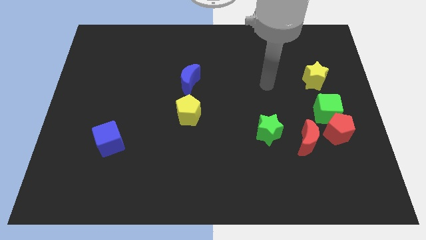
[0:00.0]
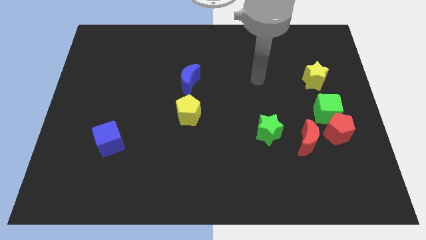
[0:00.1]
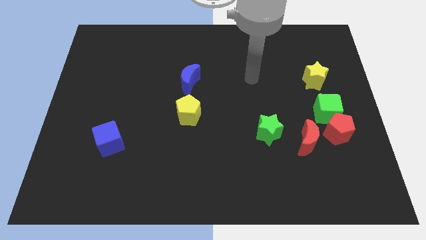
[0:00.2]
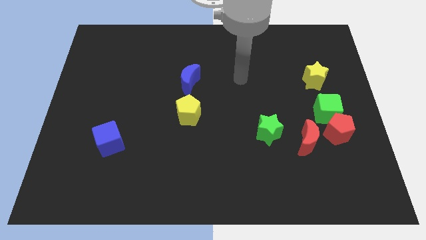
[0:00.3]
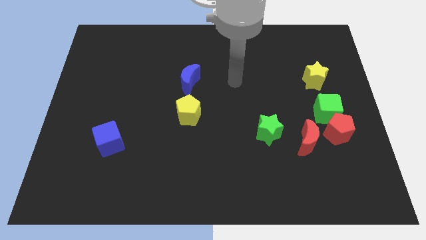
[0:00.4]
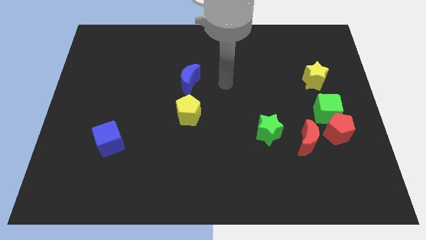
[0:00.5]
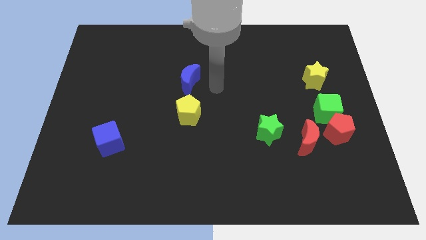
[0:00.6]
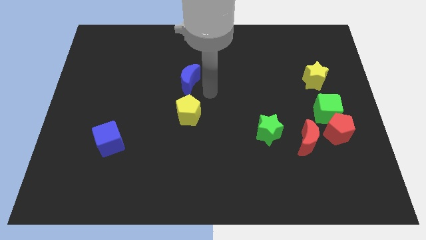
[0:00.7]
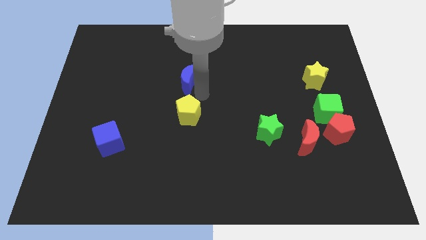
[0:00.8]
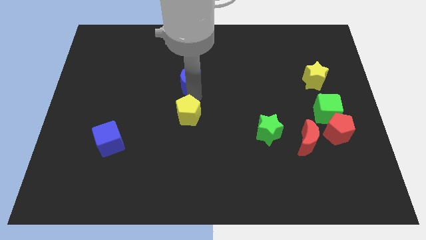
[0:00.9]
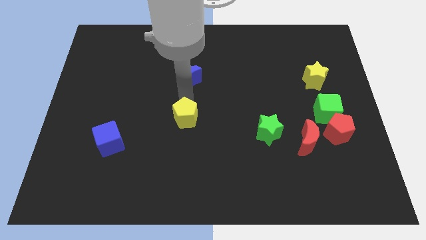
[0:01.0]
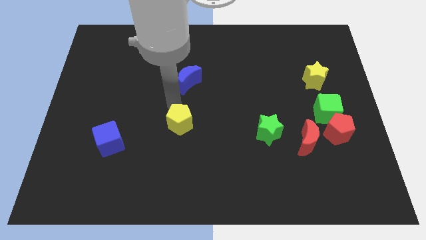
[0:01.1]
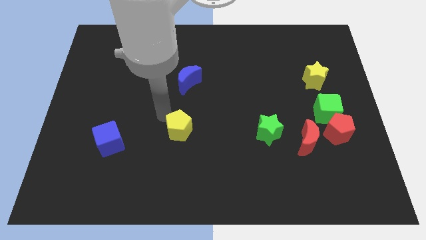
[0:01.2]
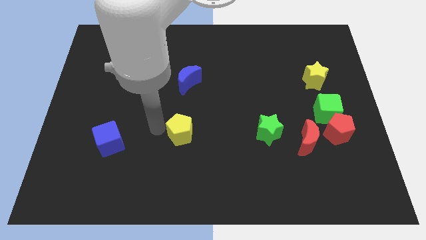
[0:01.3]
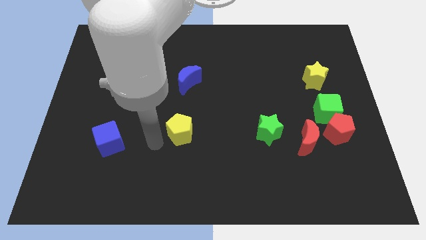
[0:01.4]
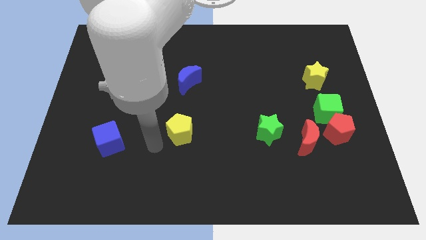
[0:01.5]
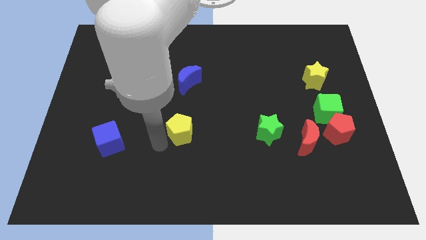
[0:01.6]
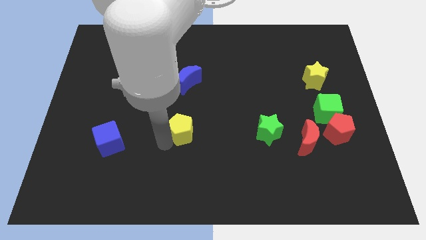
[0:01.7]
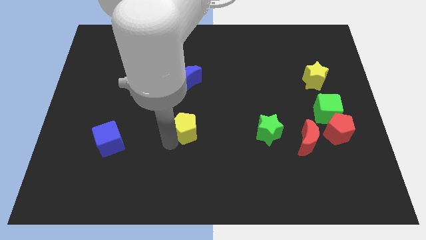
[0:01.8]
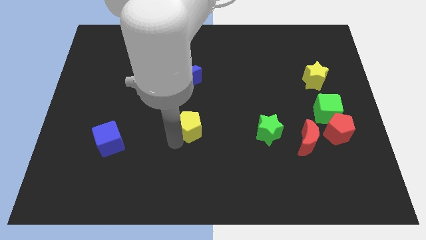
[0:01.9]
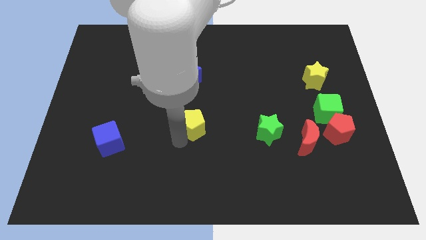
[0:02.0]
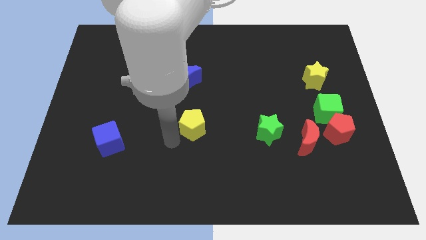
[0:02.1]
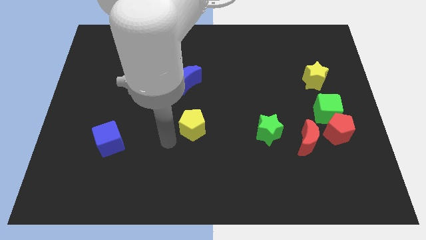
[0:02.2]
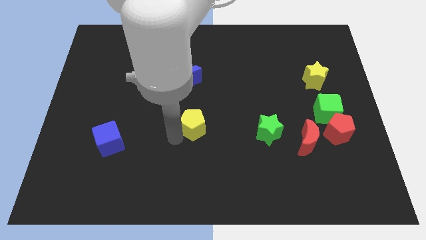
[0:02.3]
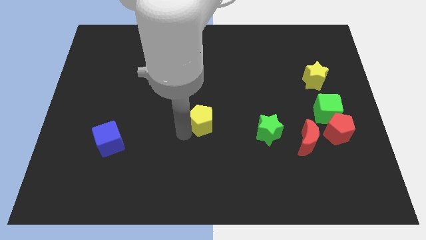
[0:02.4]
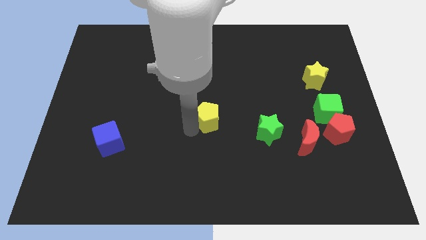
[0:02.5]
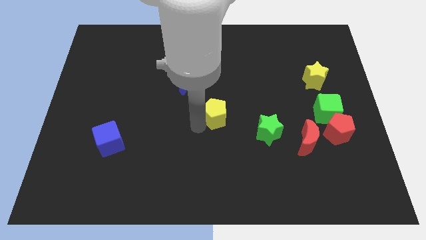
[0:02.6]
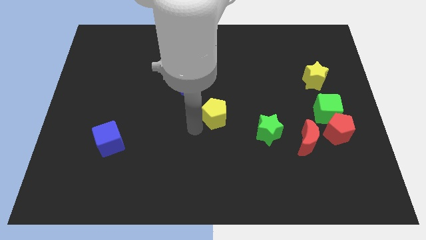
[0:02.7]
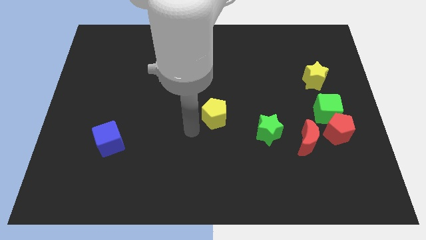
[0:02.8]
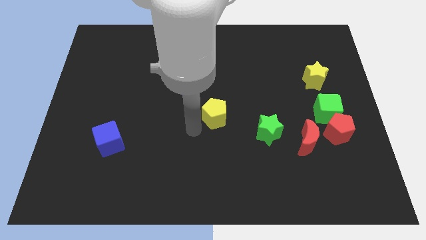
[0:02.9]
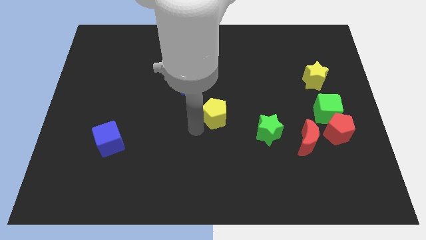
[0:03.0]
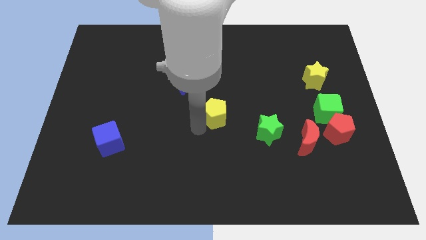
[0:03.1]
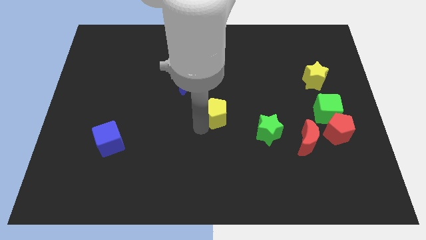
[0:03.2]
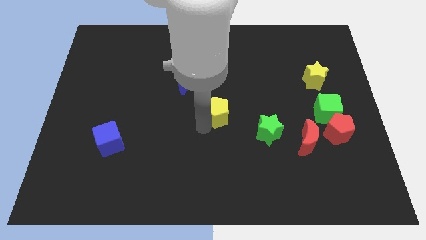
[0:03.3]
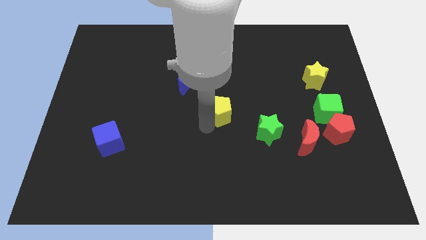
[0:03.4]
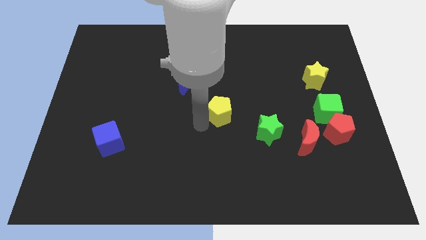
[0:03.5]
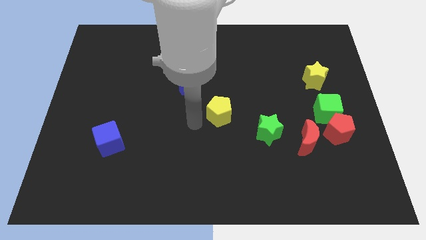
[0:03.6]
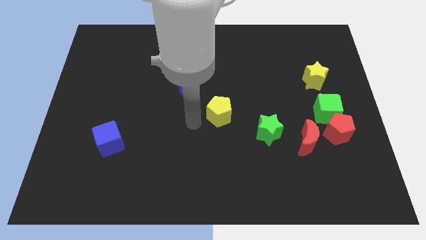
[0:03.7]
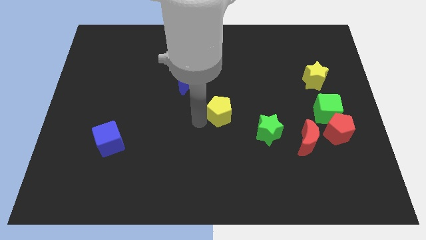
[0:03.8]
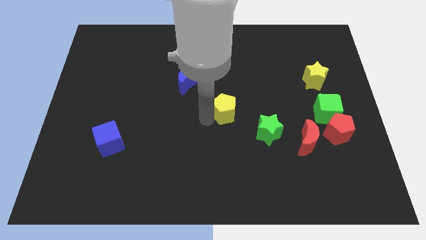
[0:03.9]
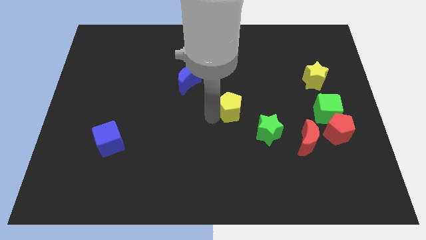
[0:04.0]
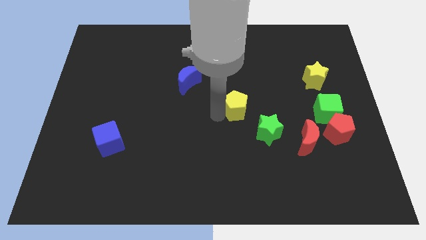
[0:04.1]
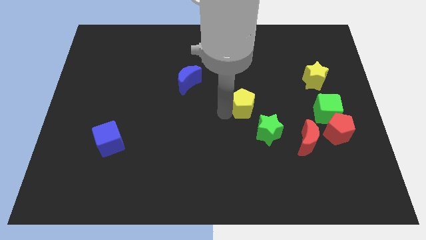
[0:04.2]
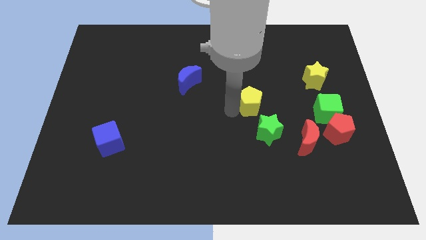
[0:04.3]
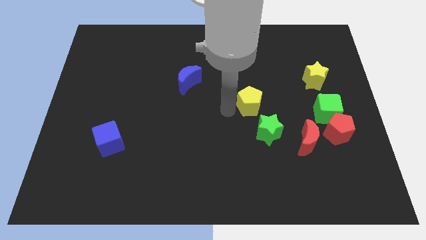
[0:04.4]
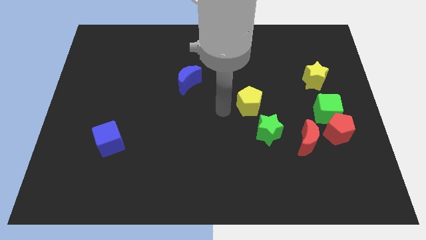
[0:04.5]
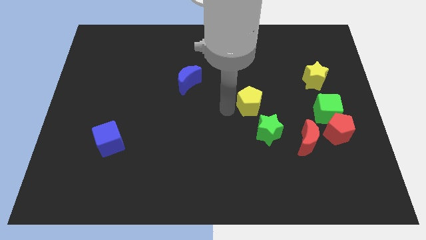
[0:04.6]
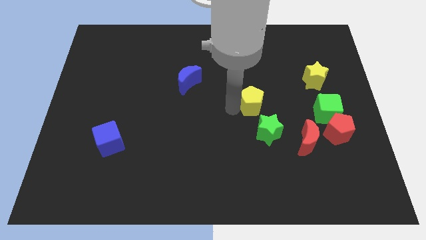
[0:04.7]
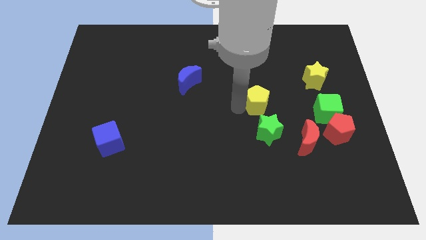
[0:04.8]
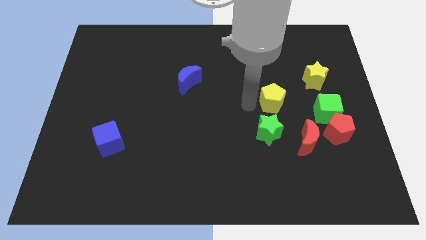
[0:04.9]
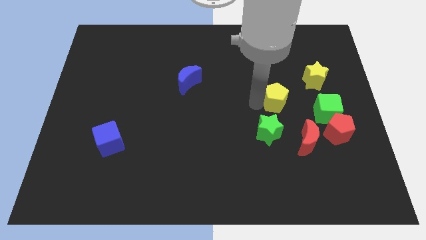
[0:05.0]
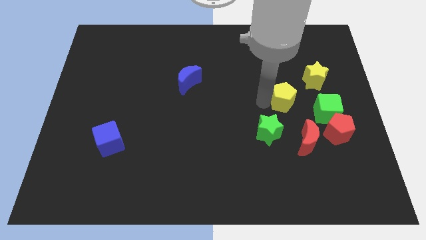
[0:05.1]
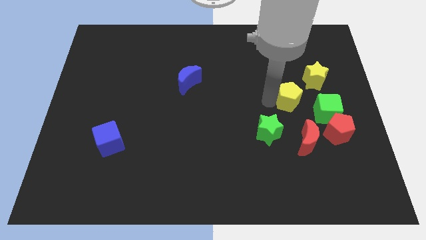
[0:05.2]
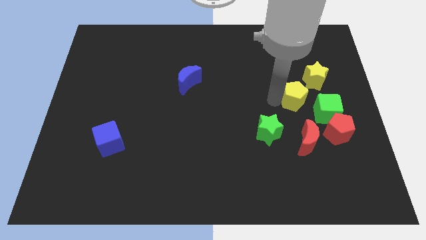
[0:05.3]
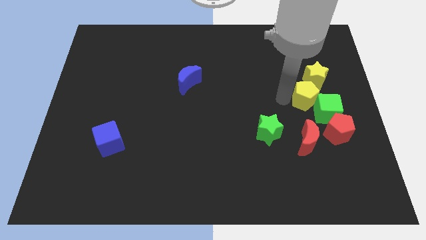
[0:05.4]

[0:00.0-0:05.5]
push the yellow pentagon to the green cube

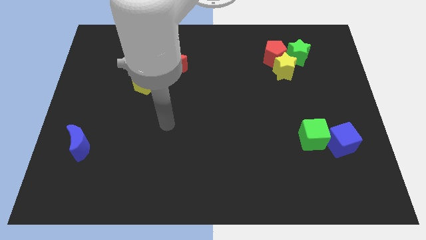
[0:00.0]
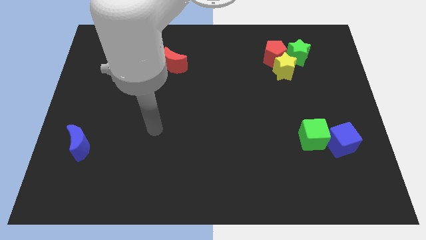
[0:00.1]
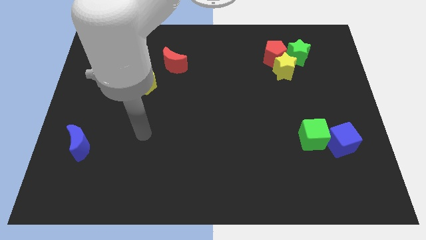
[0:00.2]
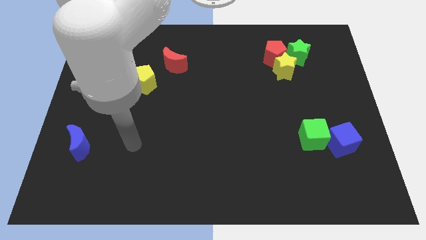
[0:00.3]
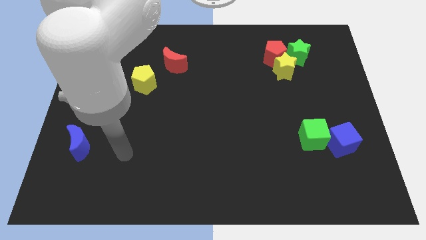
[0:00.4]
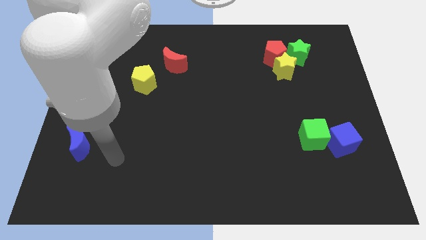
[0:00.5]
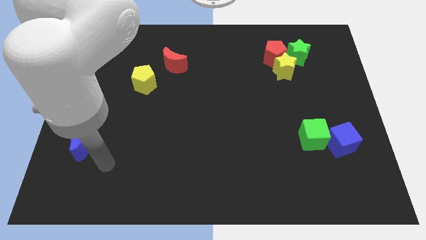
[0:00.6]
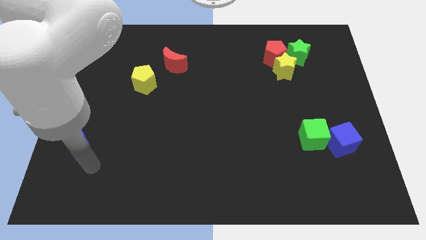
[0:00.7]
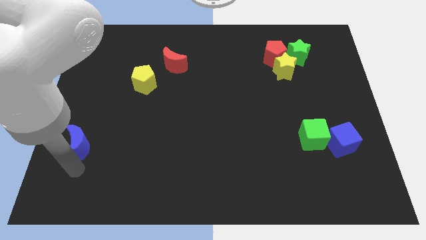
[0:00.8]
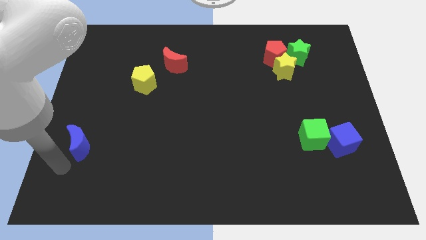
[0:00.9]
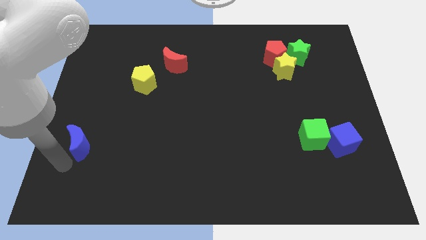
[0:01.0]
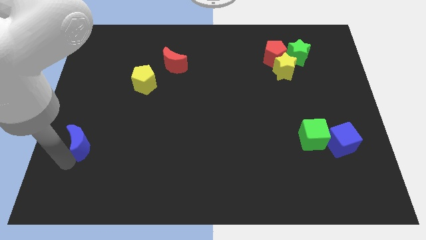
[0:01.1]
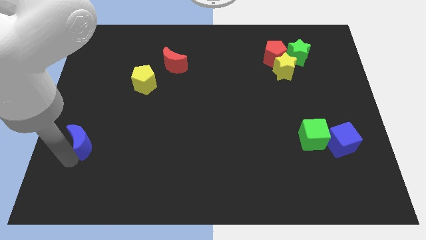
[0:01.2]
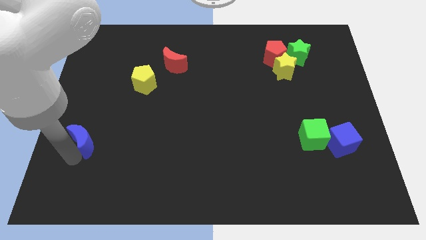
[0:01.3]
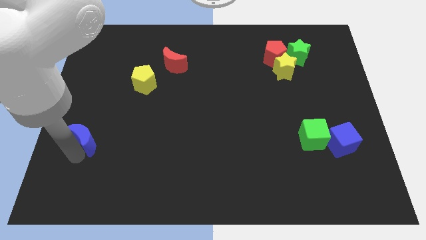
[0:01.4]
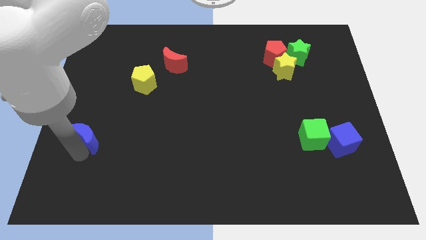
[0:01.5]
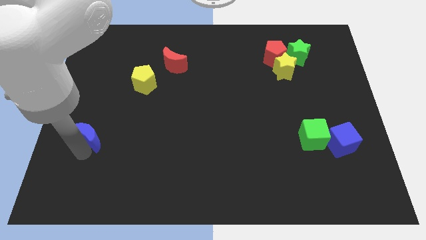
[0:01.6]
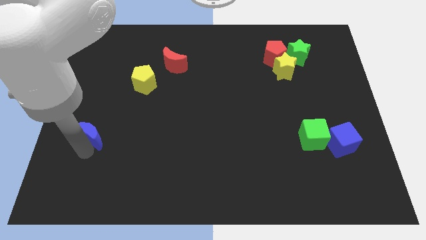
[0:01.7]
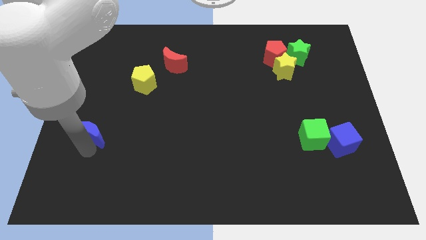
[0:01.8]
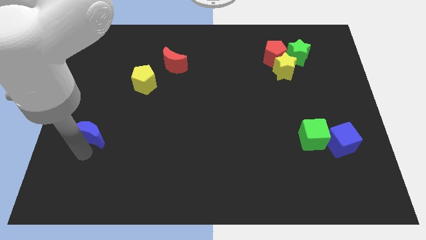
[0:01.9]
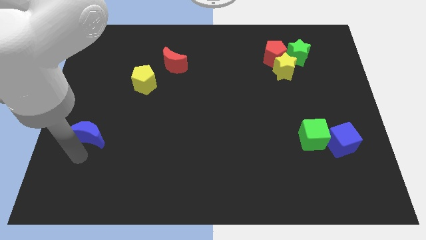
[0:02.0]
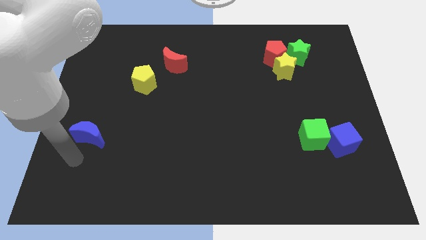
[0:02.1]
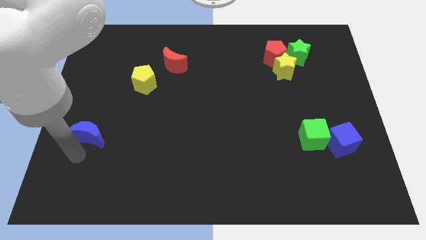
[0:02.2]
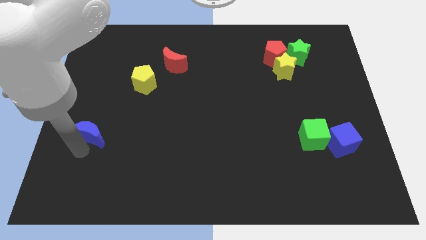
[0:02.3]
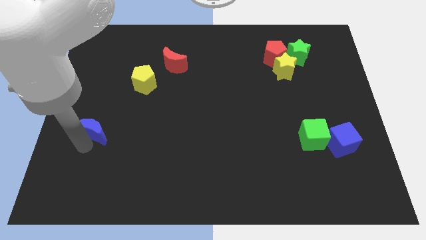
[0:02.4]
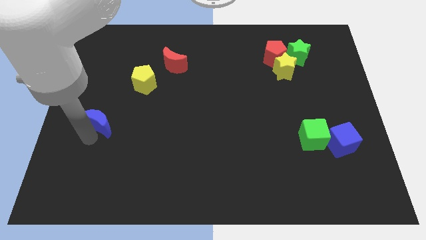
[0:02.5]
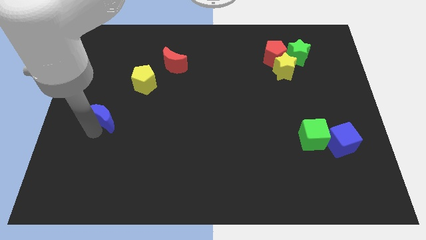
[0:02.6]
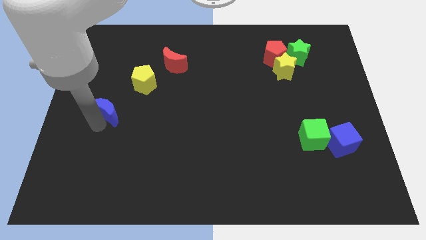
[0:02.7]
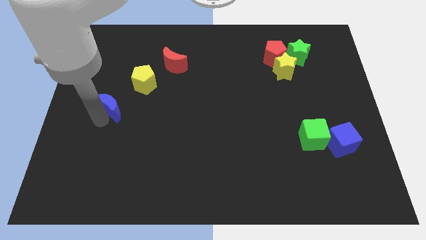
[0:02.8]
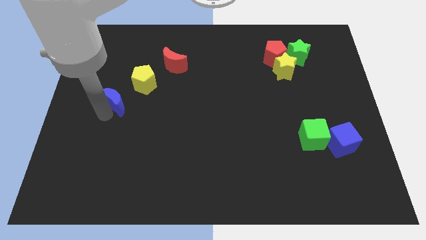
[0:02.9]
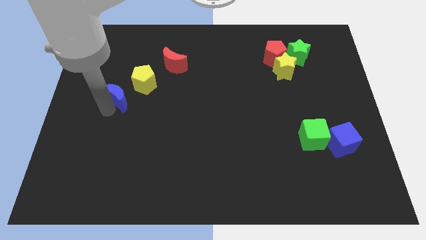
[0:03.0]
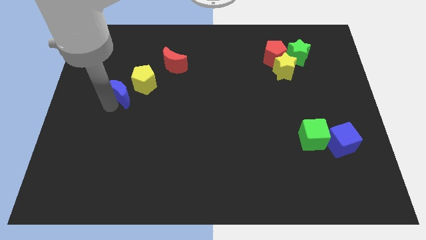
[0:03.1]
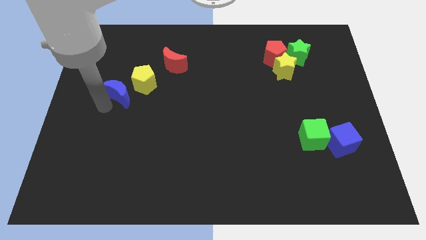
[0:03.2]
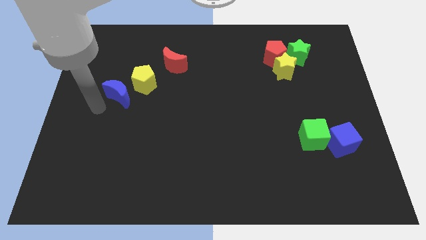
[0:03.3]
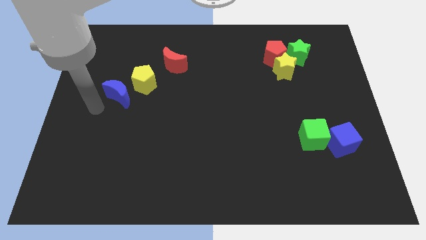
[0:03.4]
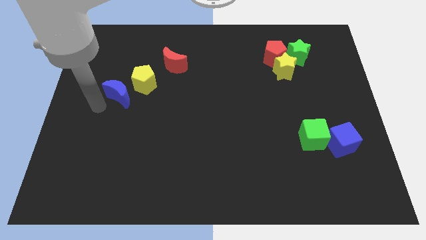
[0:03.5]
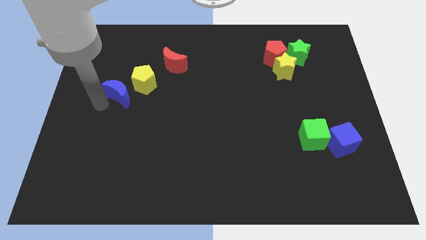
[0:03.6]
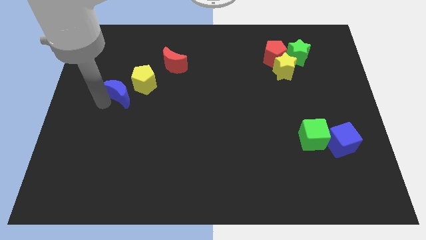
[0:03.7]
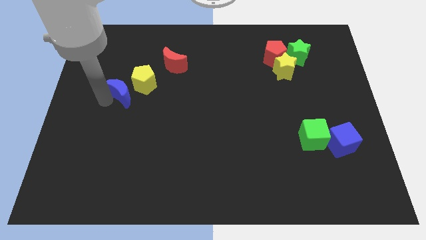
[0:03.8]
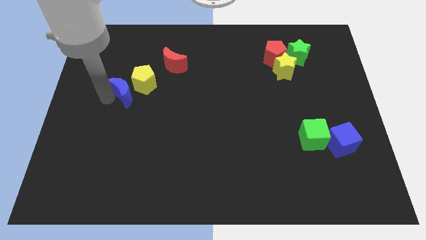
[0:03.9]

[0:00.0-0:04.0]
push the blue moon to the yellow pentagon
